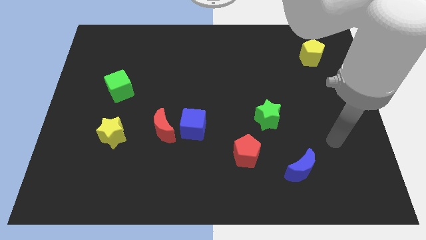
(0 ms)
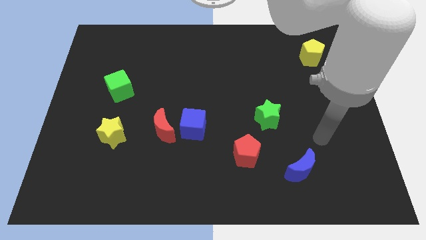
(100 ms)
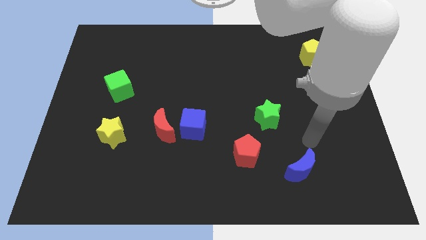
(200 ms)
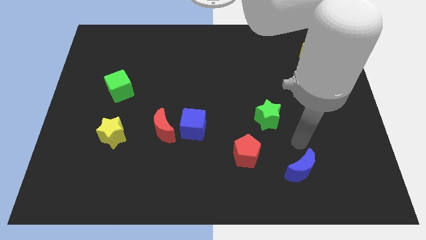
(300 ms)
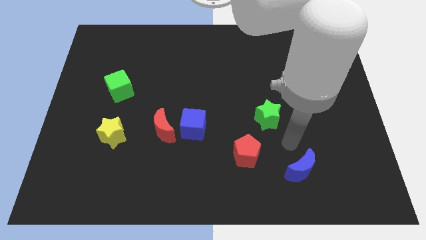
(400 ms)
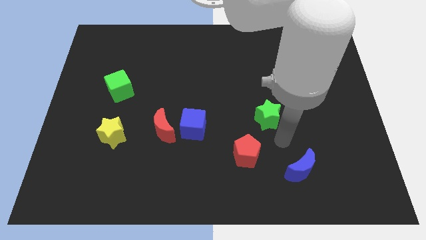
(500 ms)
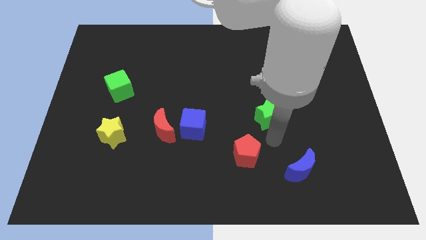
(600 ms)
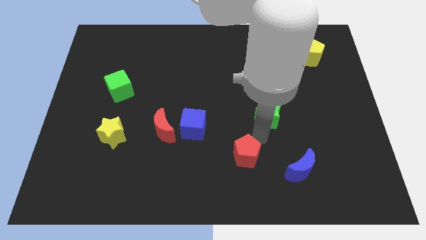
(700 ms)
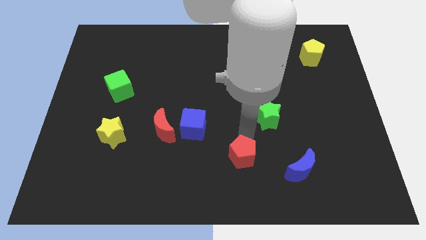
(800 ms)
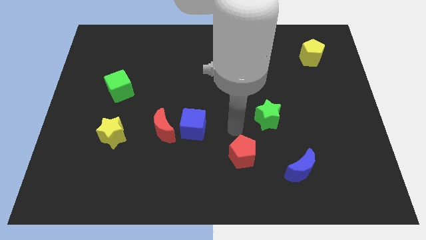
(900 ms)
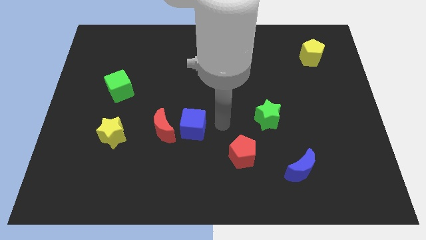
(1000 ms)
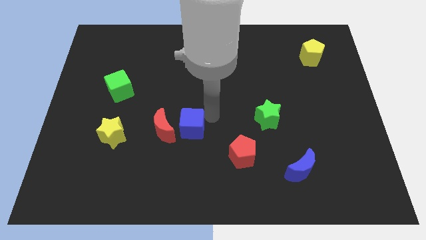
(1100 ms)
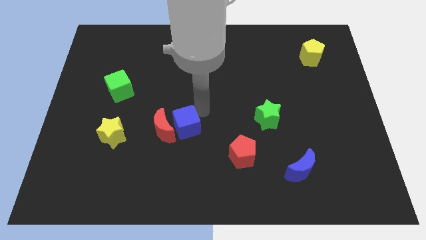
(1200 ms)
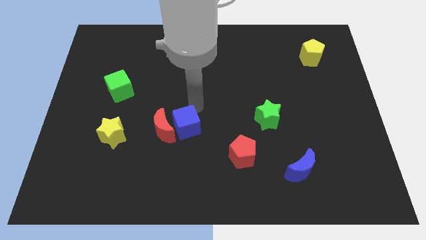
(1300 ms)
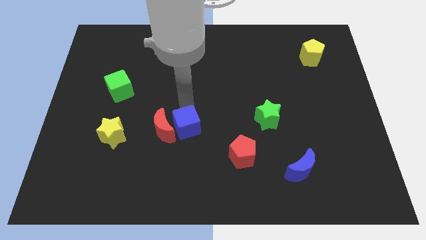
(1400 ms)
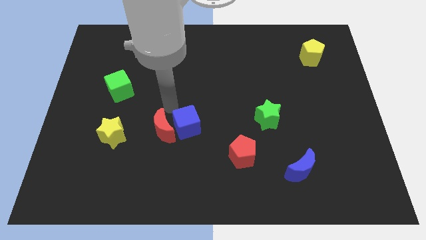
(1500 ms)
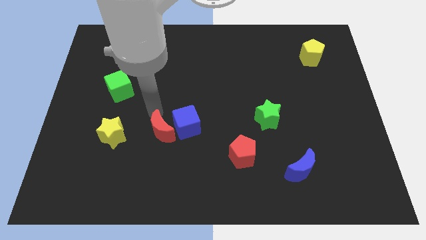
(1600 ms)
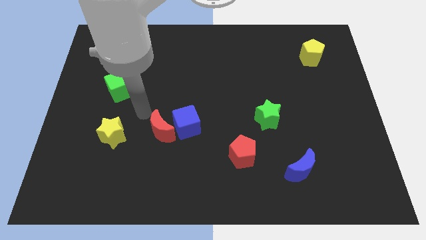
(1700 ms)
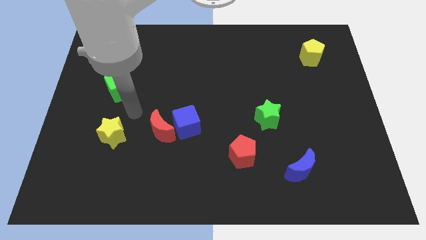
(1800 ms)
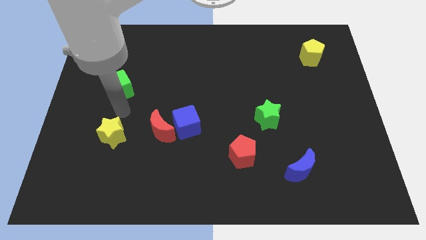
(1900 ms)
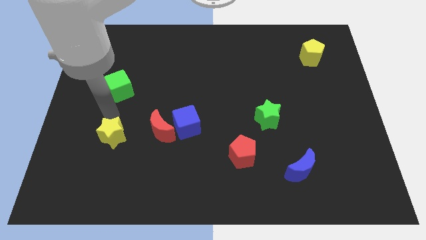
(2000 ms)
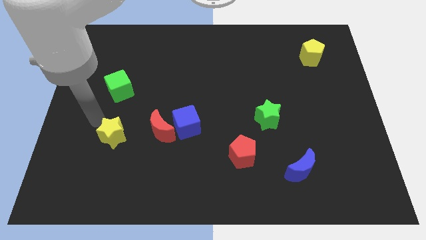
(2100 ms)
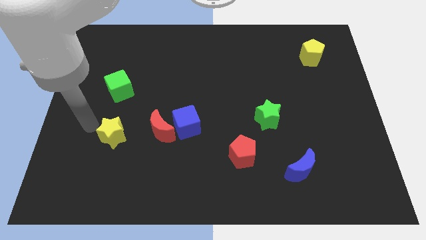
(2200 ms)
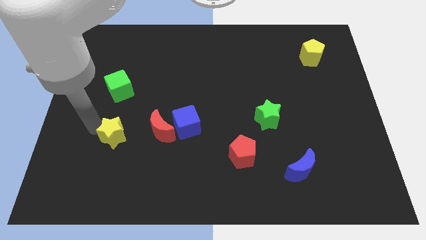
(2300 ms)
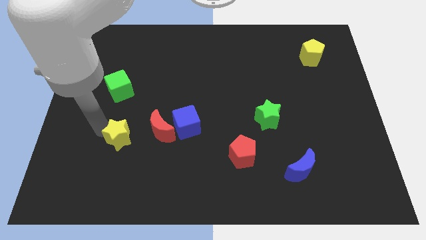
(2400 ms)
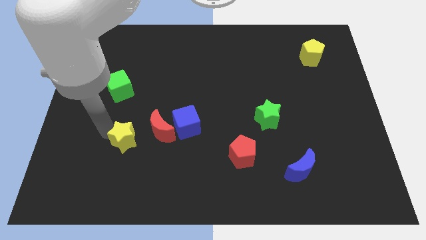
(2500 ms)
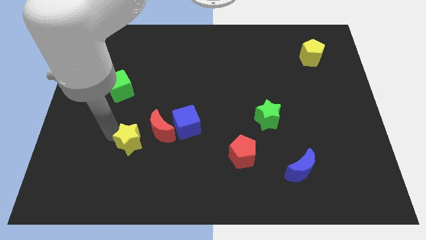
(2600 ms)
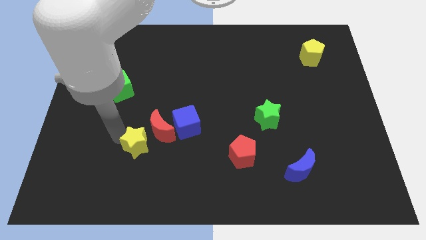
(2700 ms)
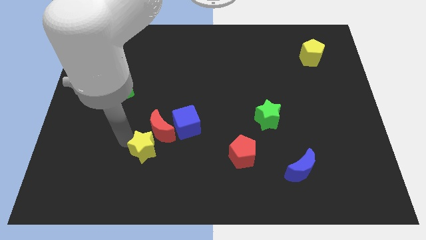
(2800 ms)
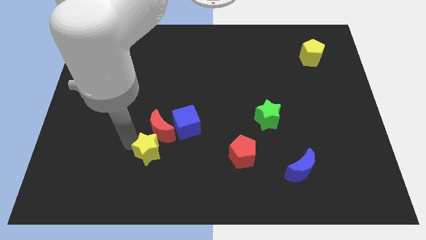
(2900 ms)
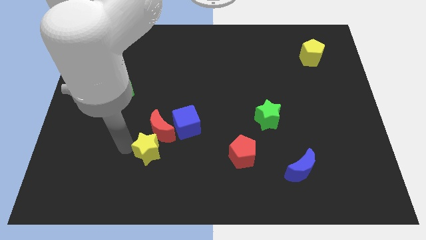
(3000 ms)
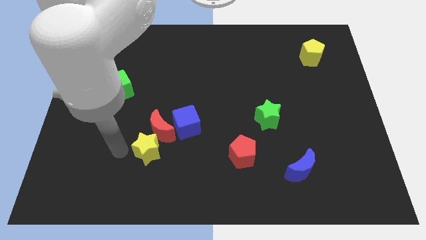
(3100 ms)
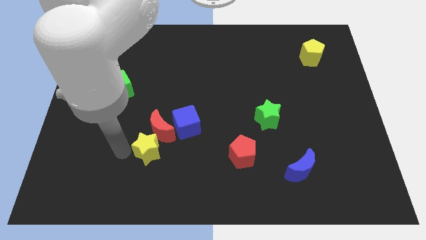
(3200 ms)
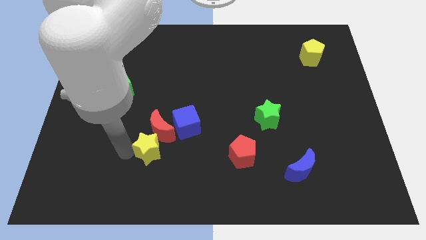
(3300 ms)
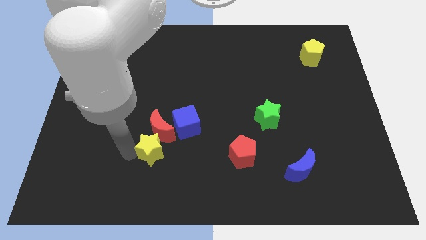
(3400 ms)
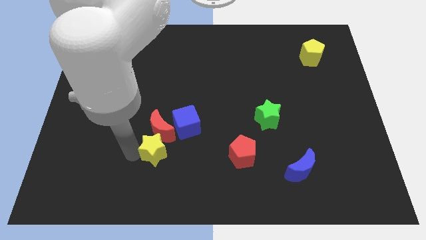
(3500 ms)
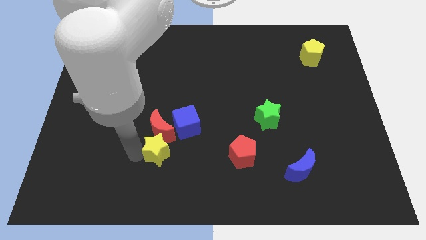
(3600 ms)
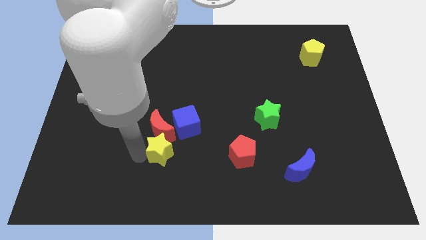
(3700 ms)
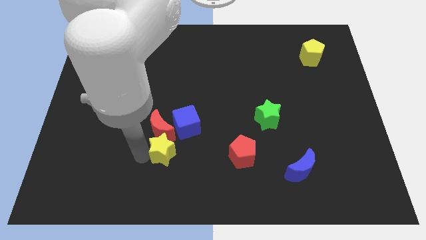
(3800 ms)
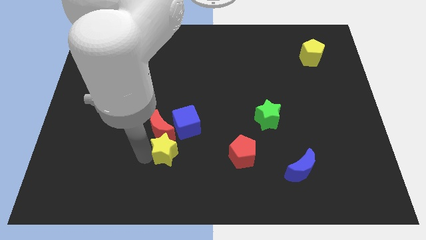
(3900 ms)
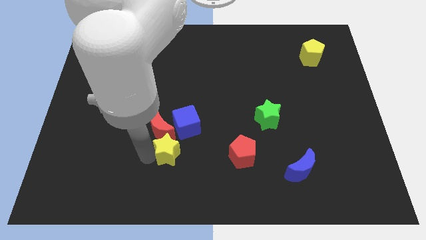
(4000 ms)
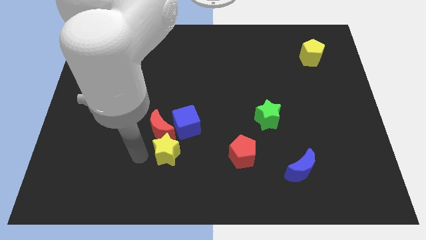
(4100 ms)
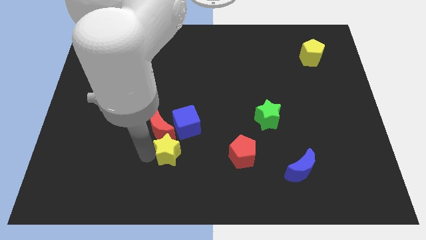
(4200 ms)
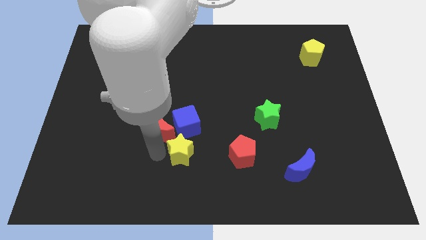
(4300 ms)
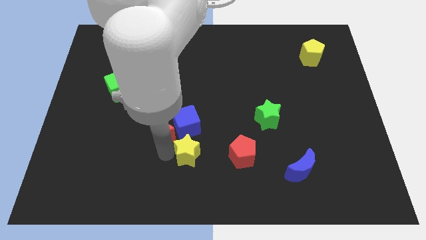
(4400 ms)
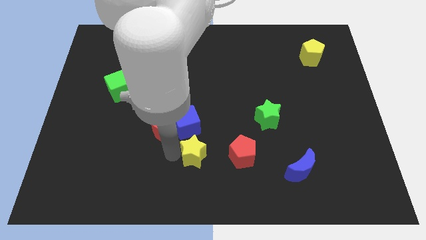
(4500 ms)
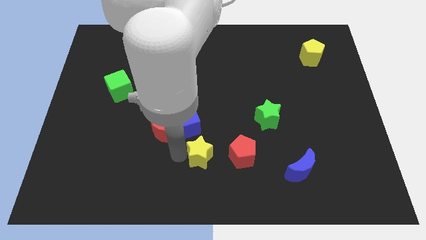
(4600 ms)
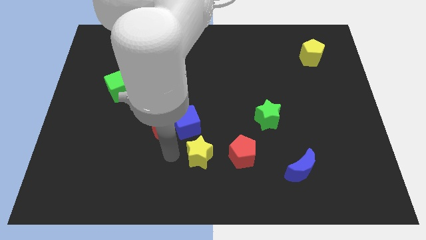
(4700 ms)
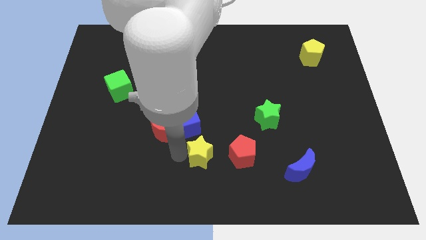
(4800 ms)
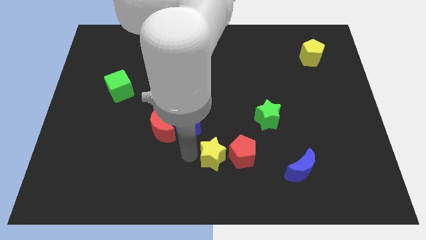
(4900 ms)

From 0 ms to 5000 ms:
move the yellow star towards the red pentagon

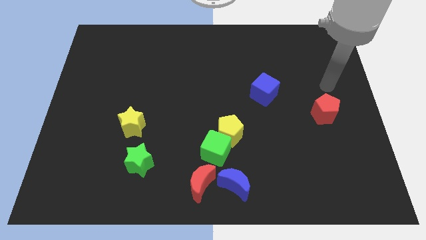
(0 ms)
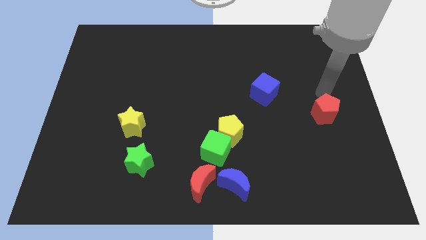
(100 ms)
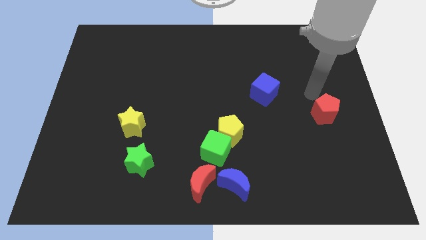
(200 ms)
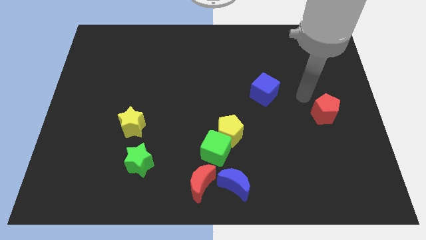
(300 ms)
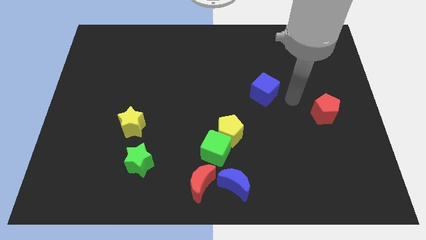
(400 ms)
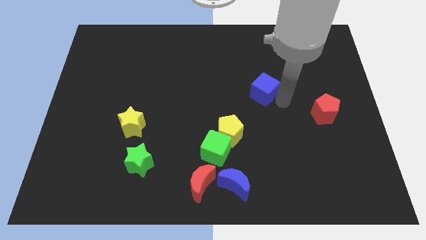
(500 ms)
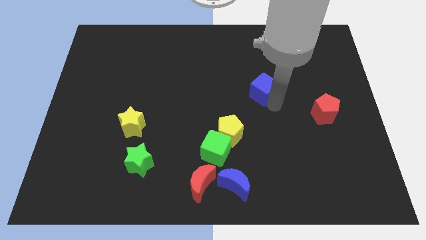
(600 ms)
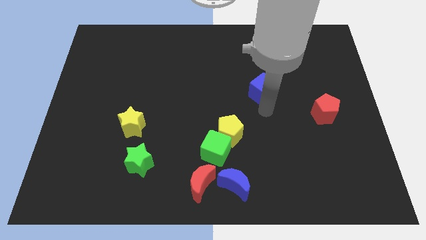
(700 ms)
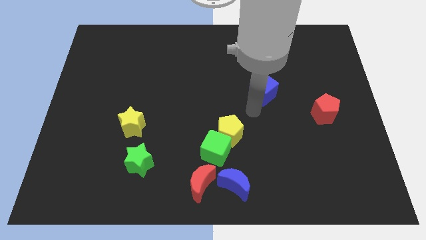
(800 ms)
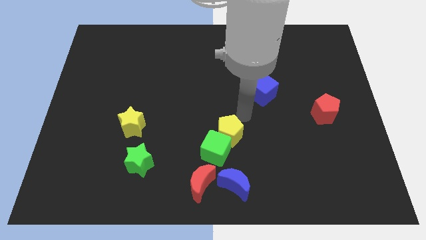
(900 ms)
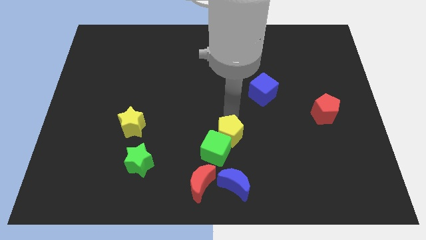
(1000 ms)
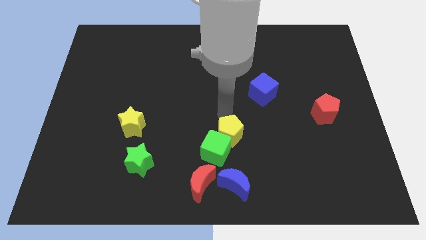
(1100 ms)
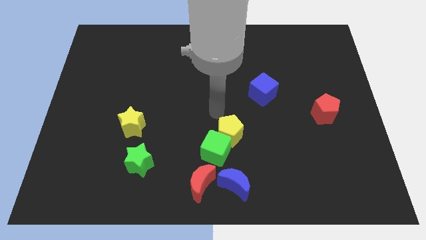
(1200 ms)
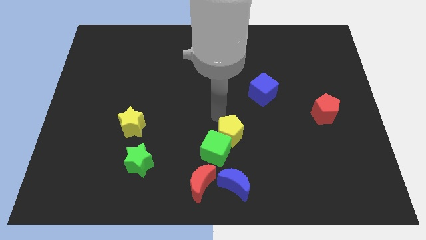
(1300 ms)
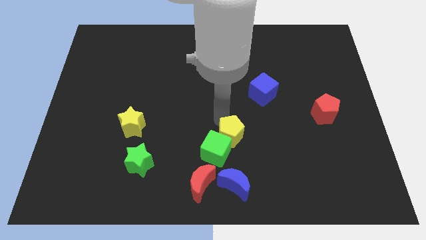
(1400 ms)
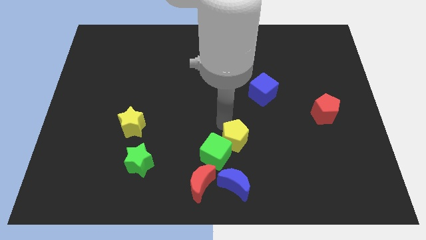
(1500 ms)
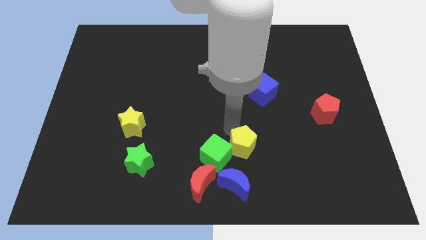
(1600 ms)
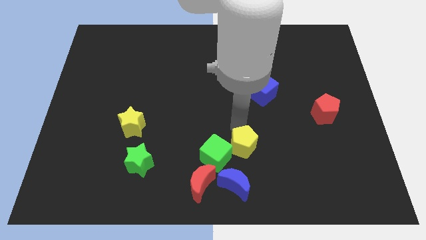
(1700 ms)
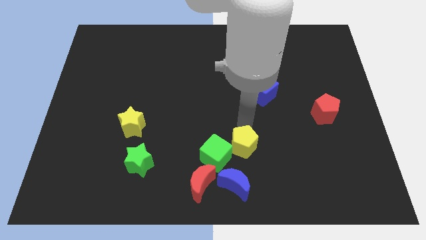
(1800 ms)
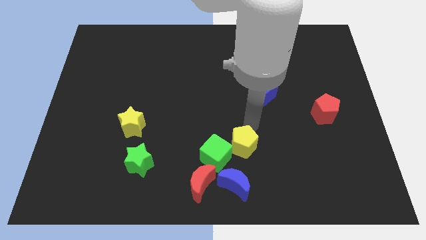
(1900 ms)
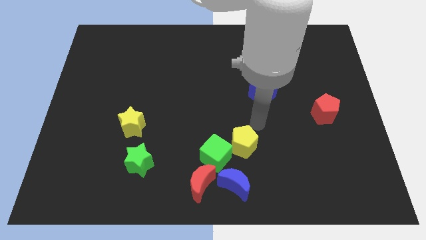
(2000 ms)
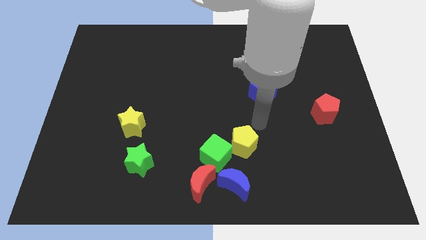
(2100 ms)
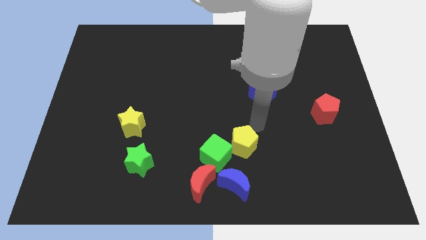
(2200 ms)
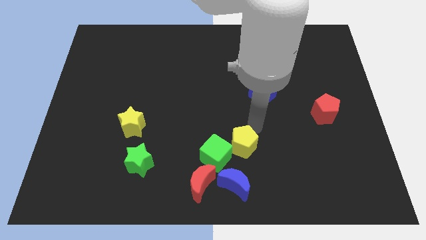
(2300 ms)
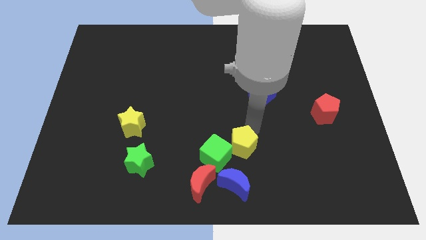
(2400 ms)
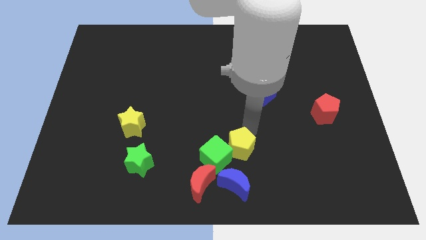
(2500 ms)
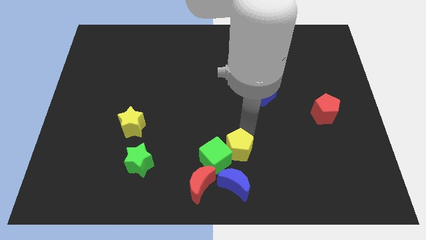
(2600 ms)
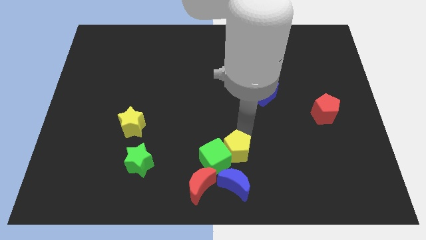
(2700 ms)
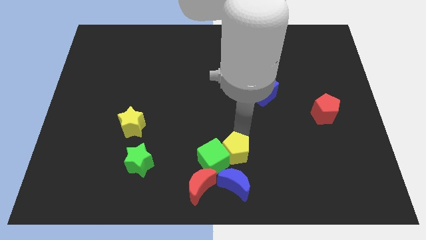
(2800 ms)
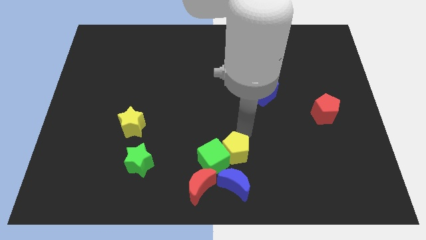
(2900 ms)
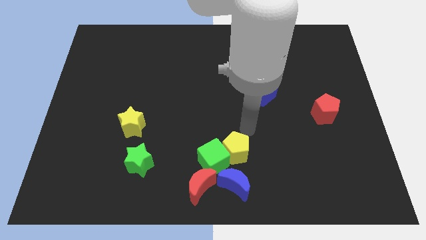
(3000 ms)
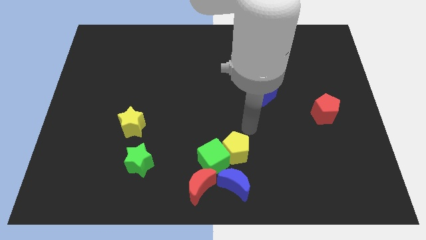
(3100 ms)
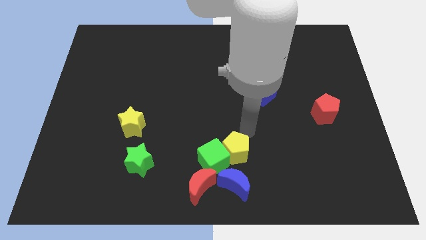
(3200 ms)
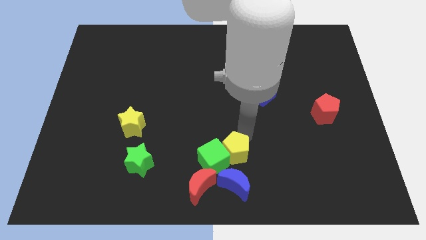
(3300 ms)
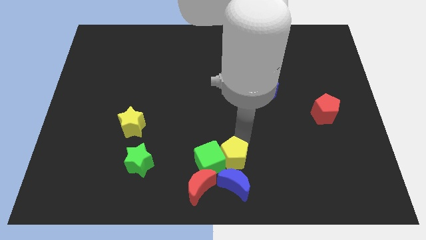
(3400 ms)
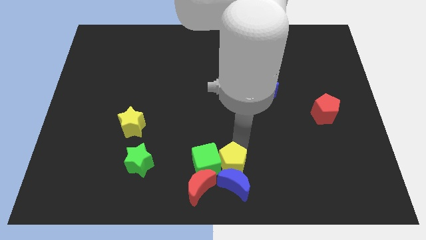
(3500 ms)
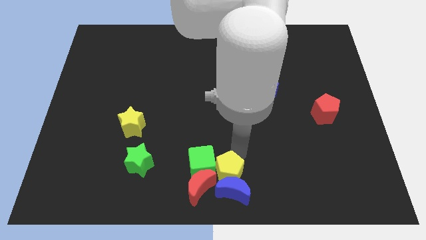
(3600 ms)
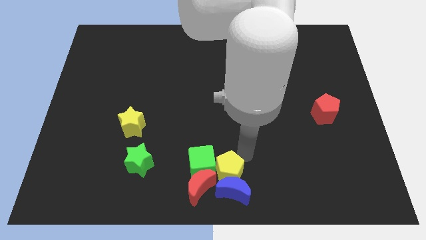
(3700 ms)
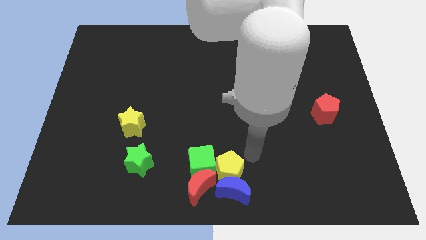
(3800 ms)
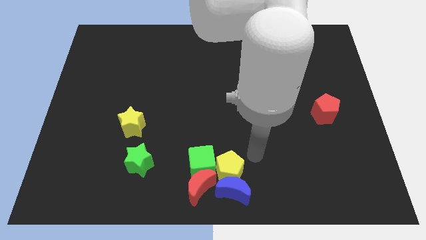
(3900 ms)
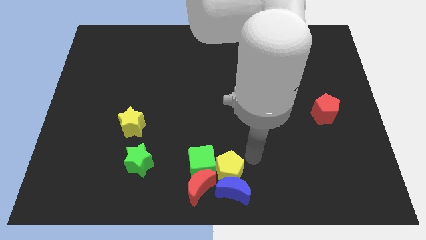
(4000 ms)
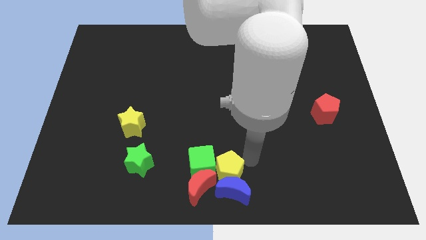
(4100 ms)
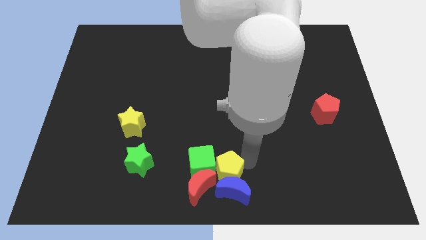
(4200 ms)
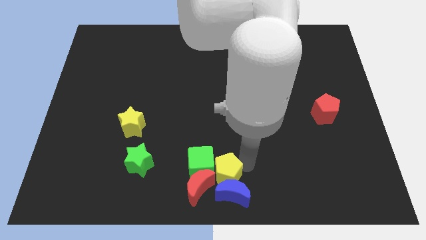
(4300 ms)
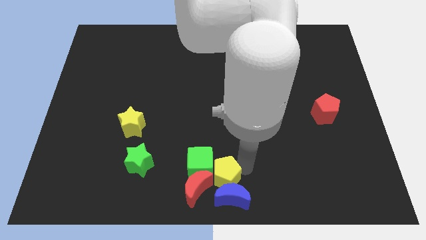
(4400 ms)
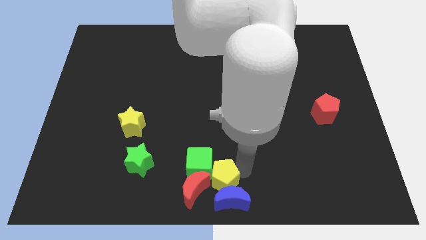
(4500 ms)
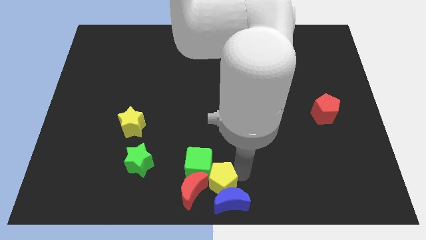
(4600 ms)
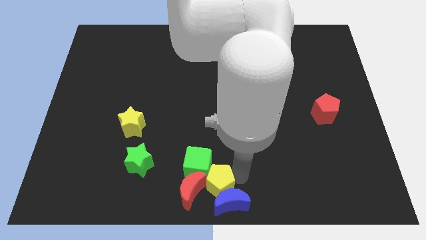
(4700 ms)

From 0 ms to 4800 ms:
move the yellow pentagon towards the red moon
